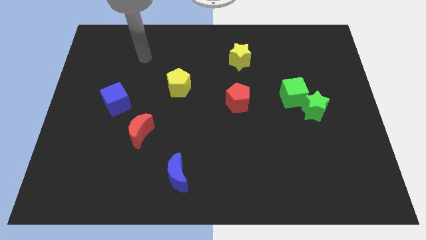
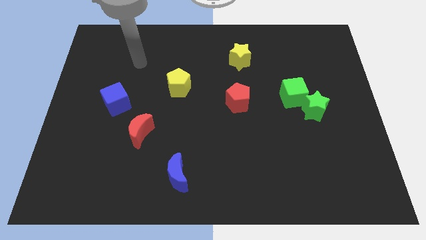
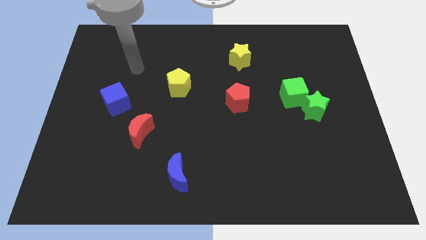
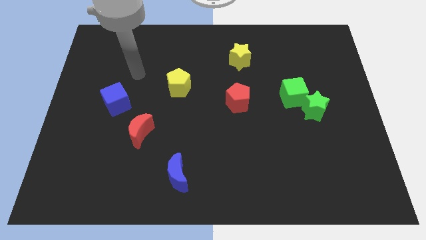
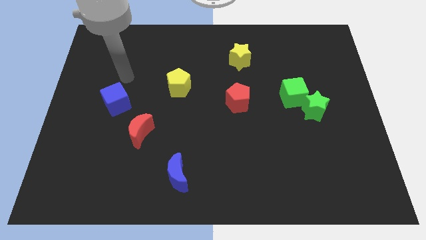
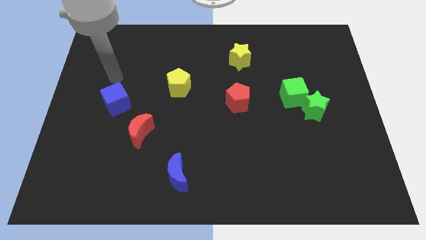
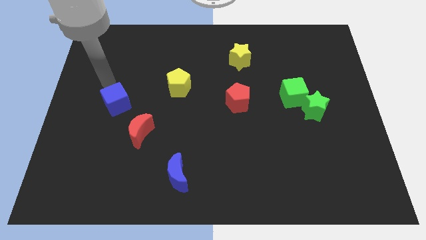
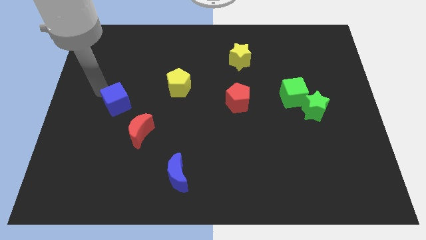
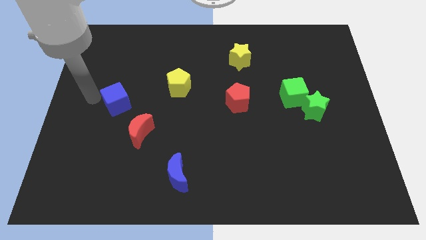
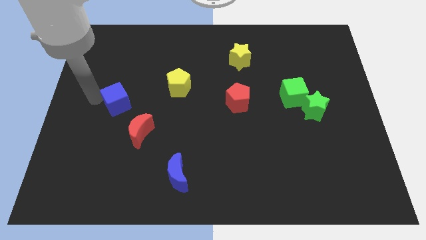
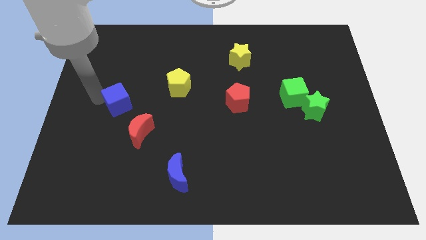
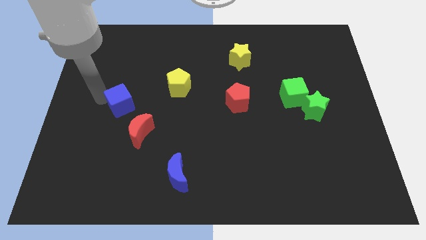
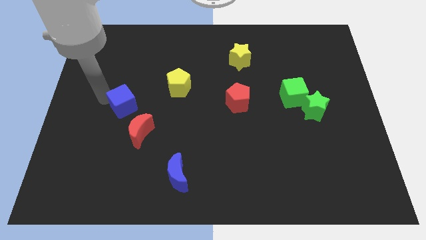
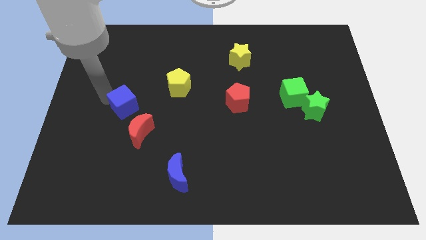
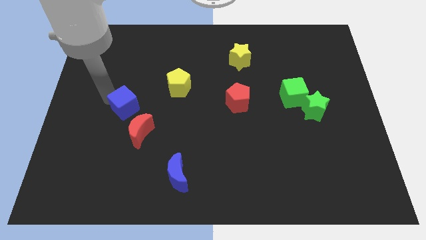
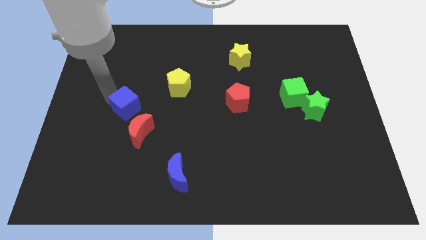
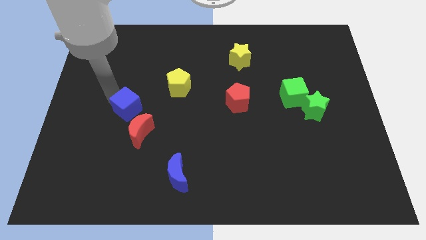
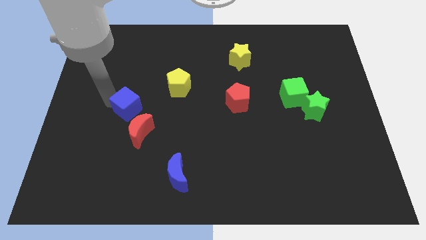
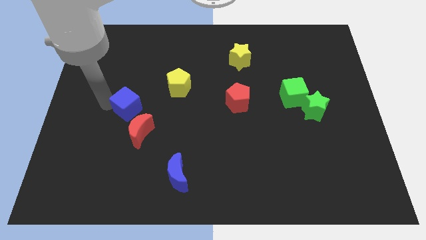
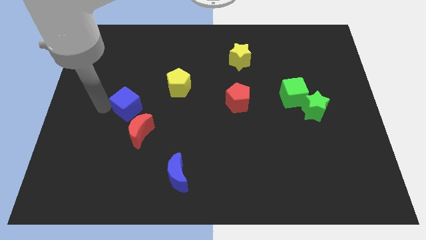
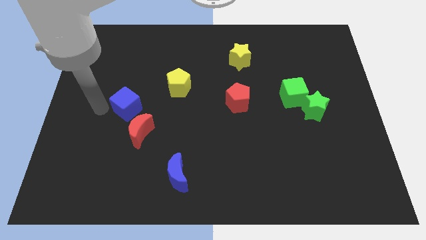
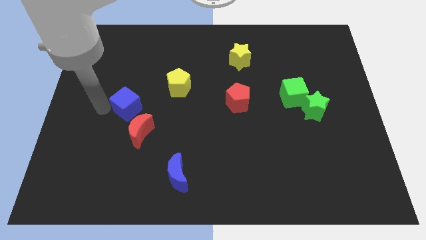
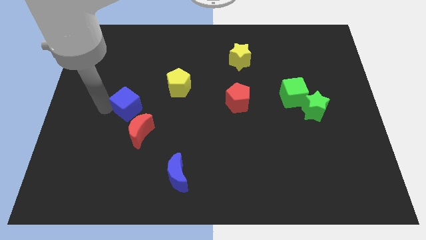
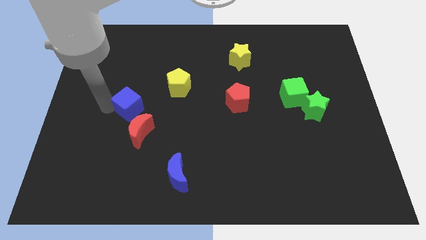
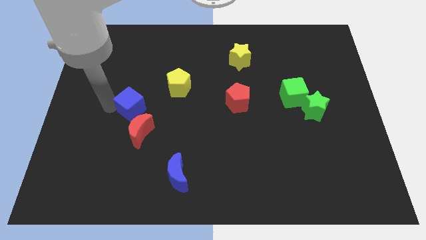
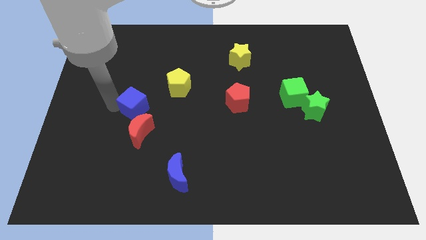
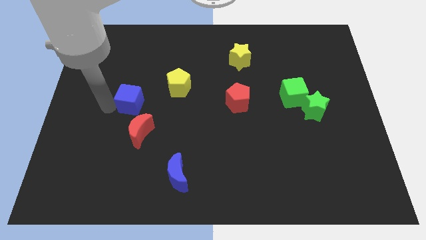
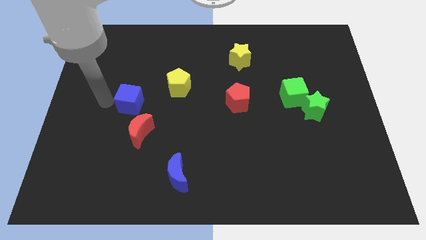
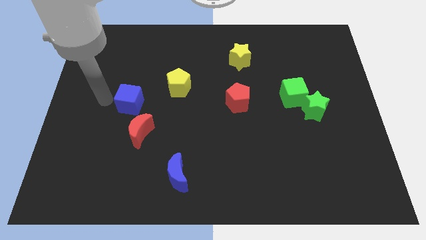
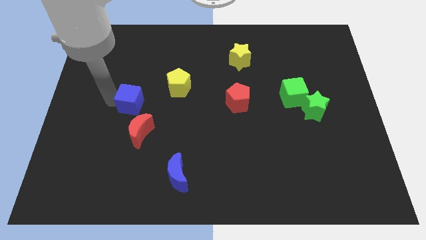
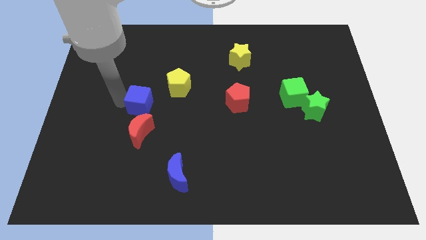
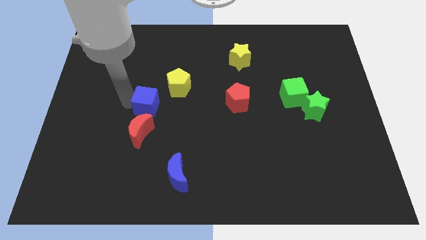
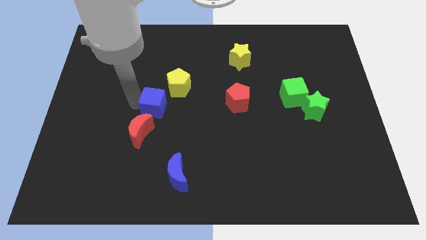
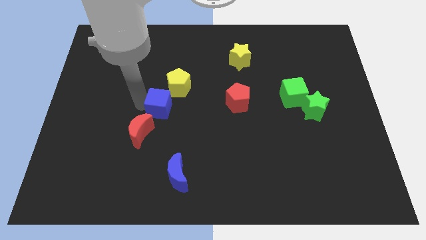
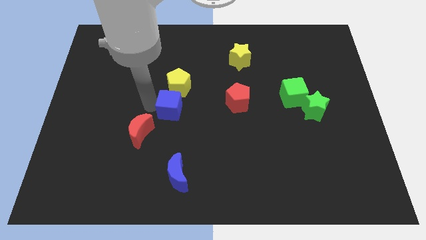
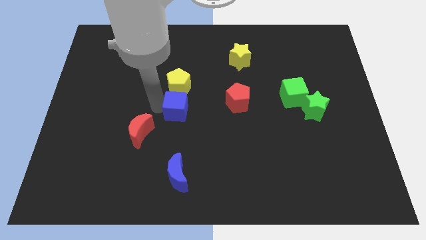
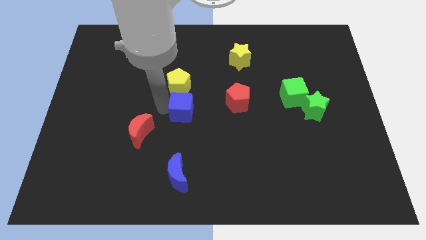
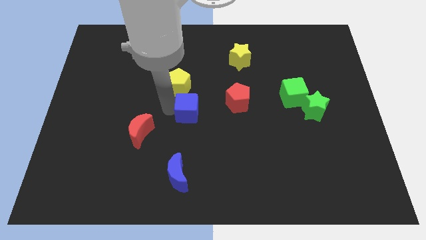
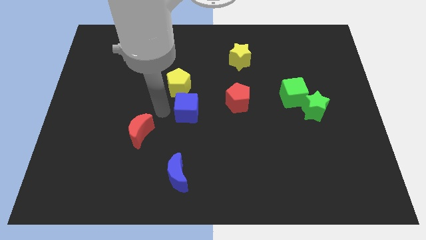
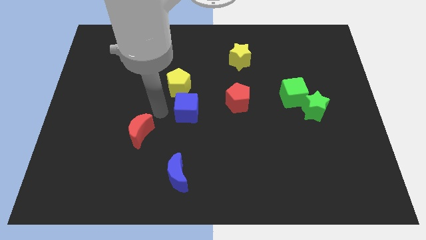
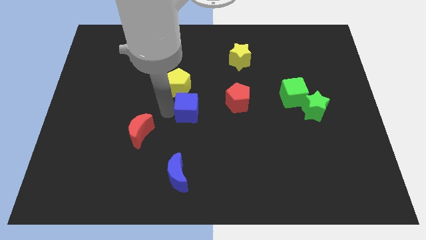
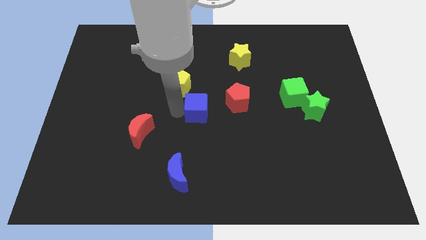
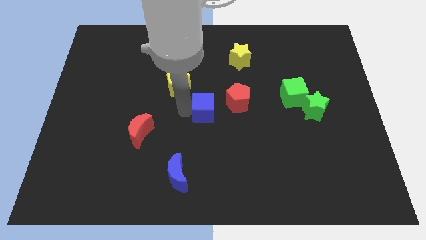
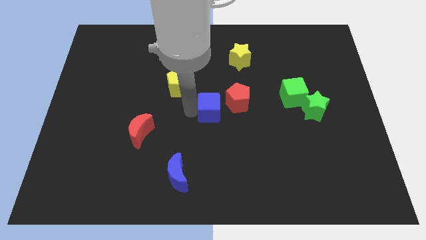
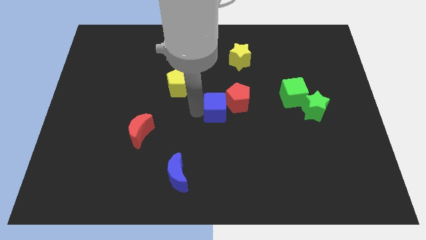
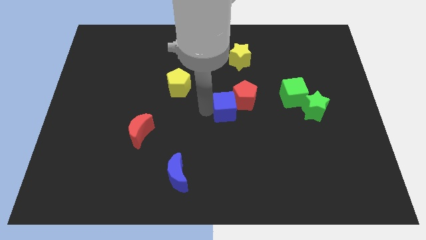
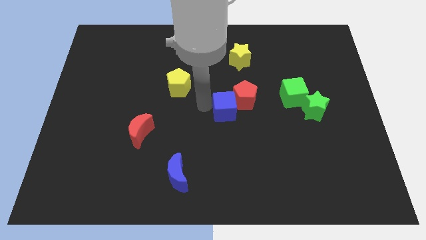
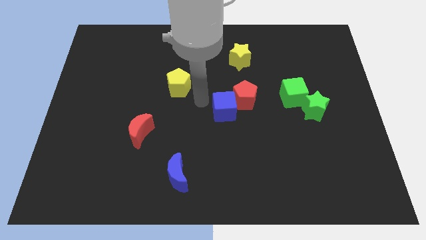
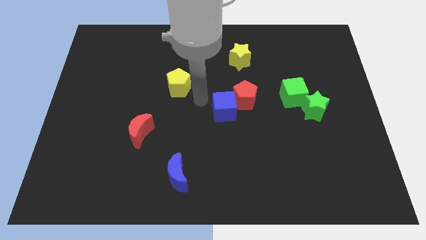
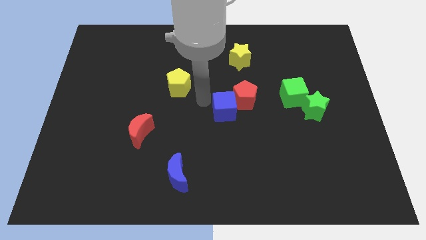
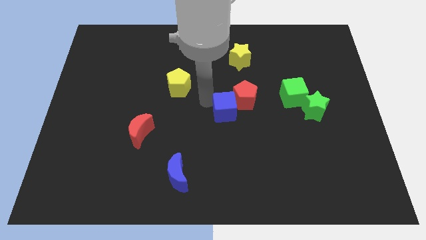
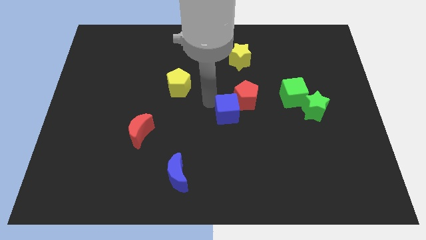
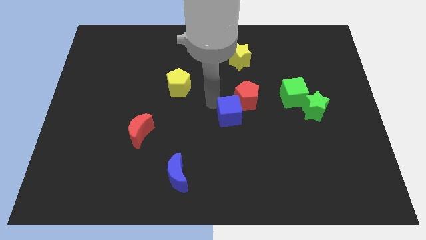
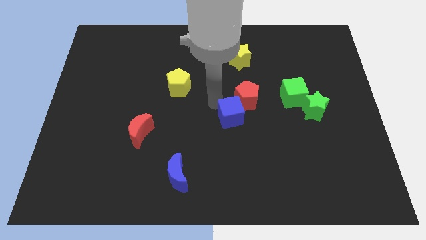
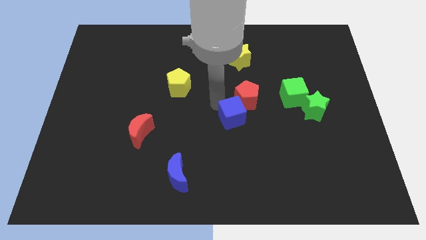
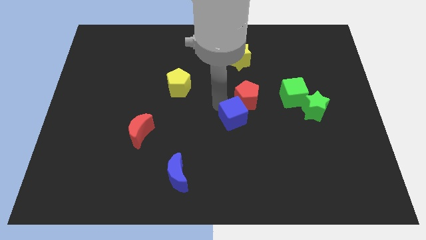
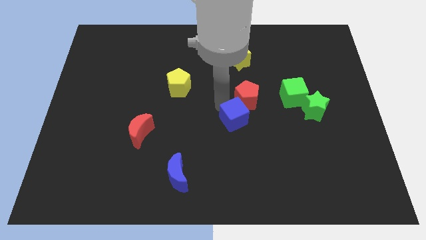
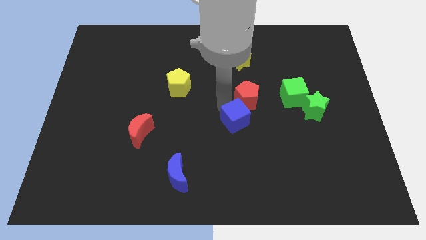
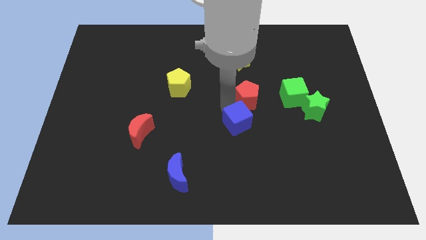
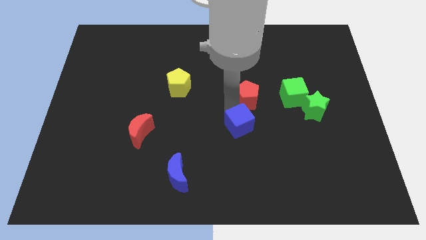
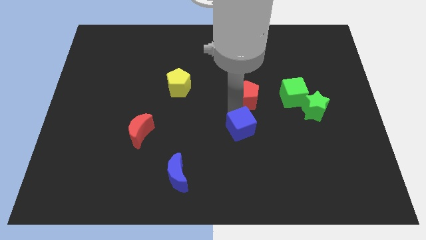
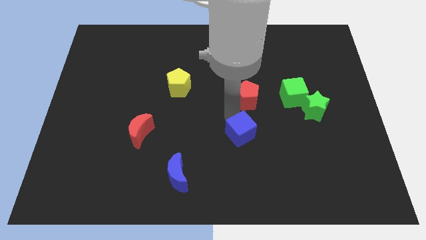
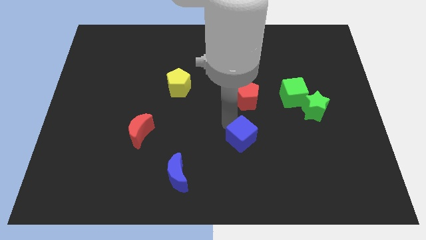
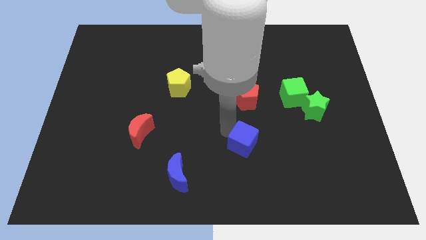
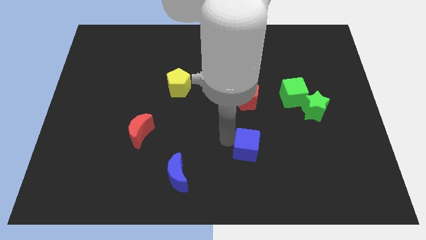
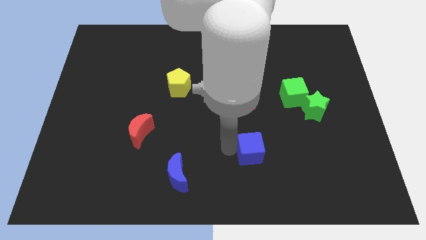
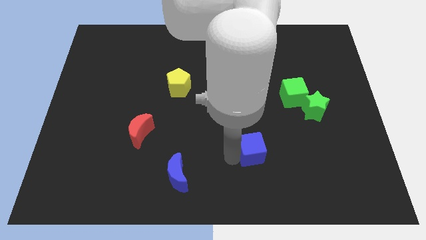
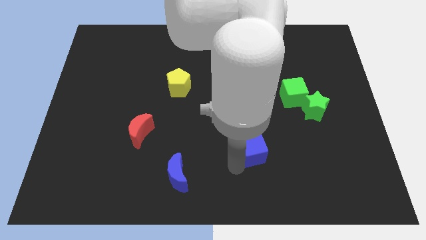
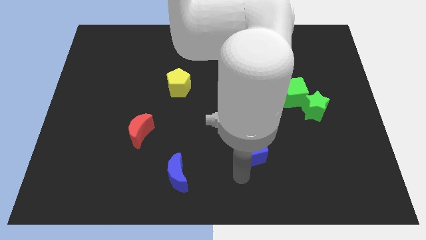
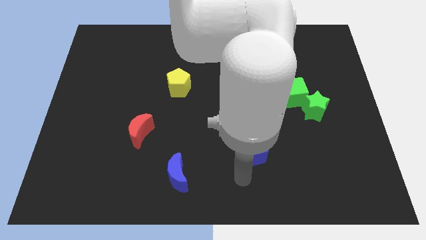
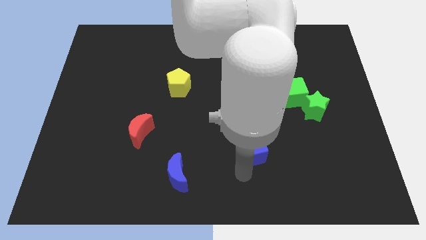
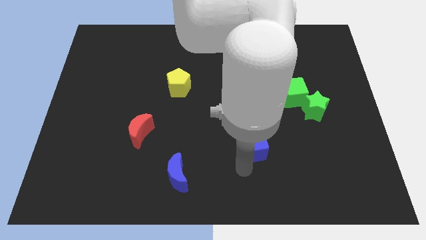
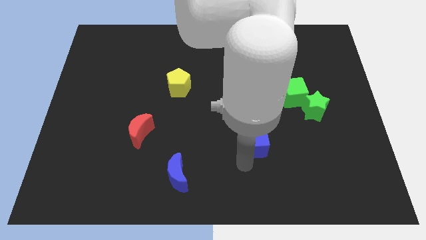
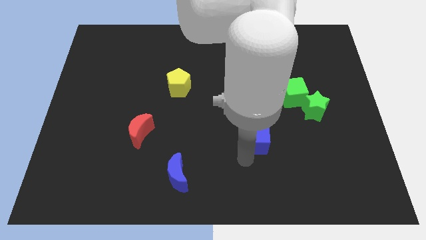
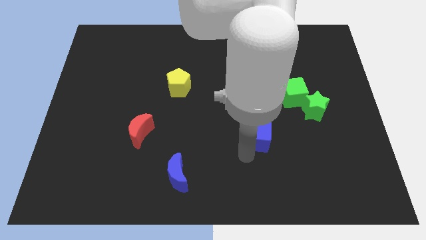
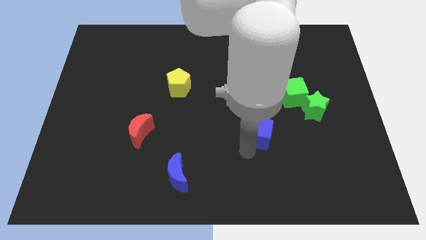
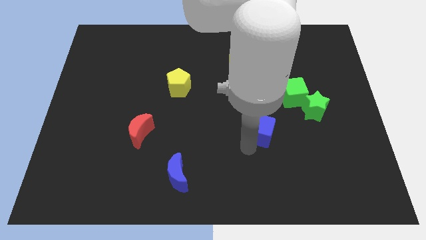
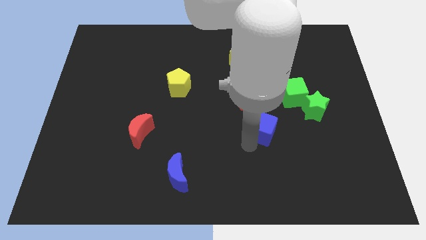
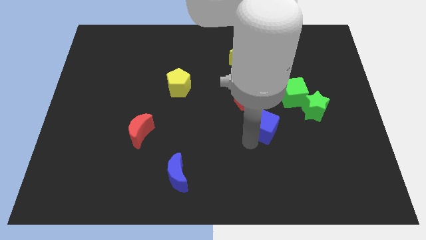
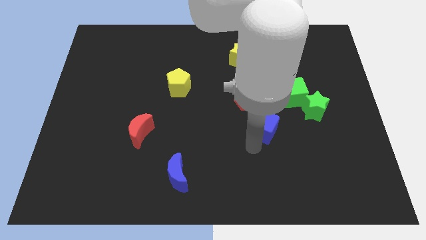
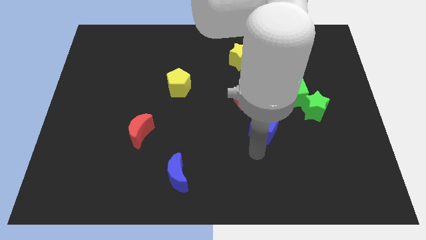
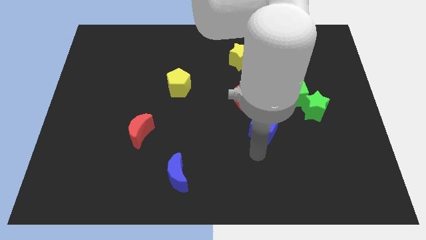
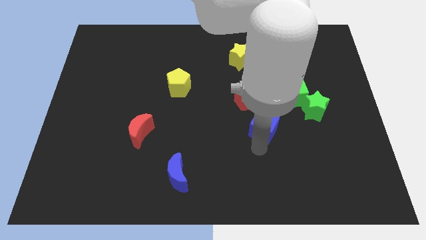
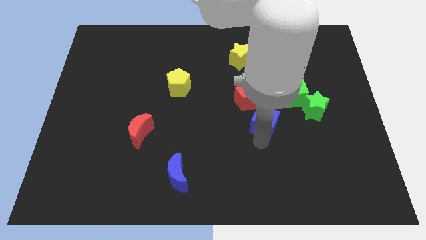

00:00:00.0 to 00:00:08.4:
put the blue cube to the left side of the green star
